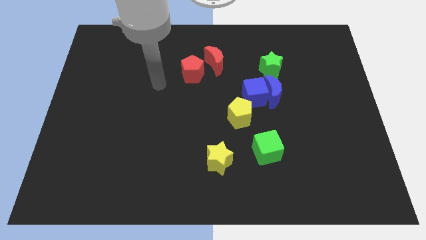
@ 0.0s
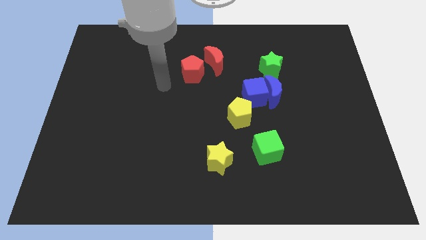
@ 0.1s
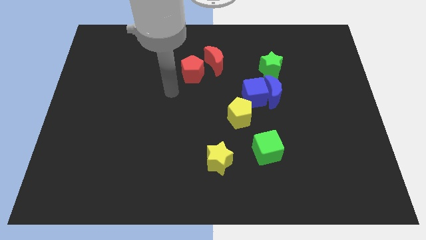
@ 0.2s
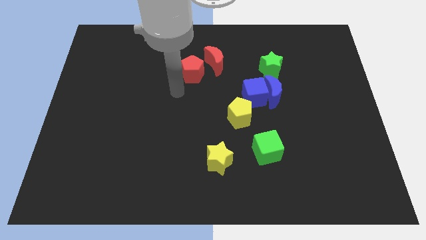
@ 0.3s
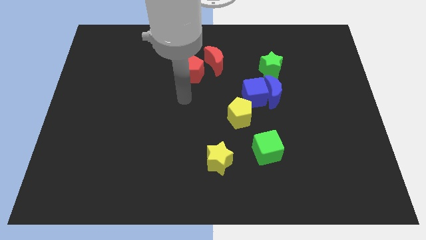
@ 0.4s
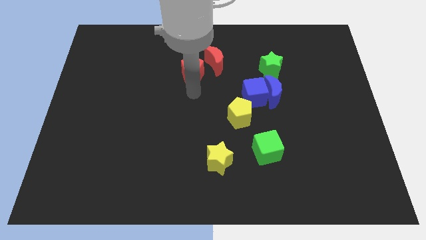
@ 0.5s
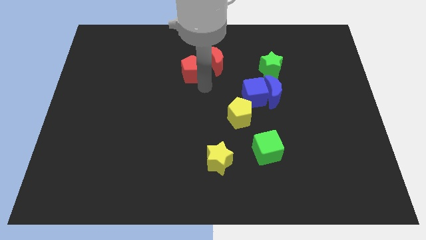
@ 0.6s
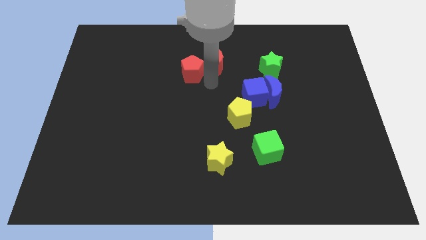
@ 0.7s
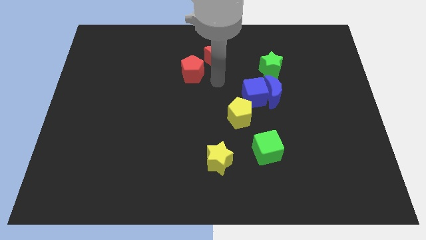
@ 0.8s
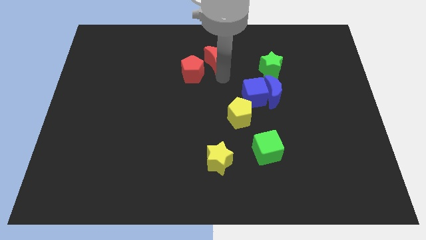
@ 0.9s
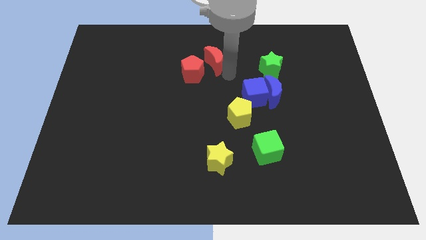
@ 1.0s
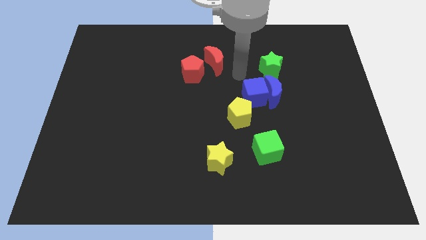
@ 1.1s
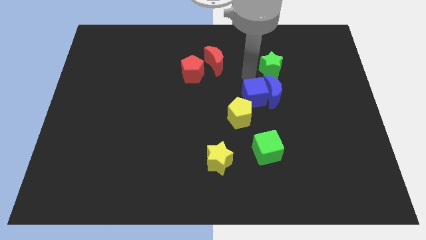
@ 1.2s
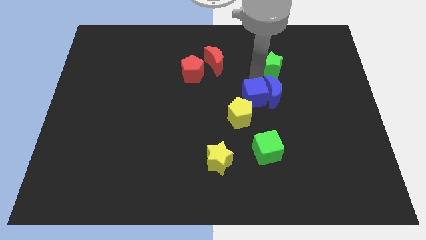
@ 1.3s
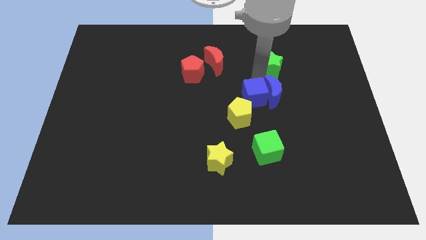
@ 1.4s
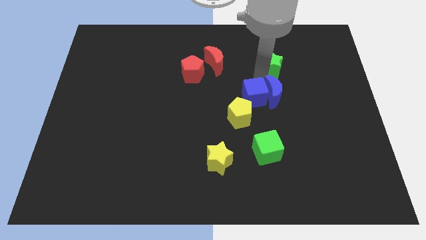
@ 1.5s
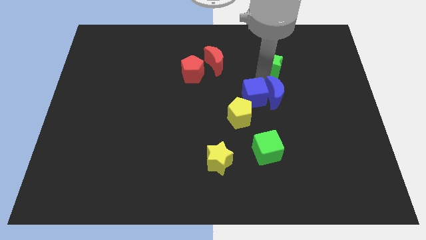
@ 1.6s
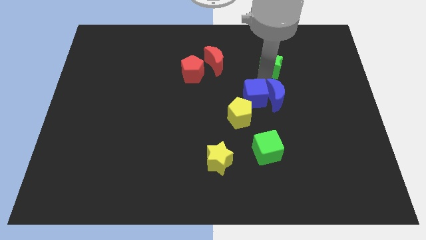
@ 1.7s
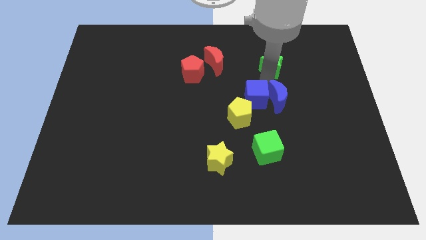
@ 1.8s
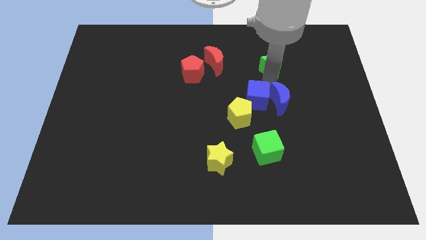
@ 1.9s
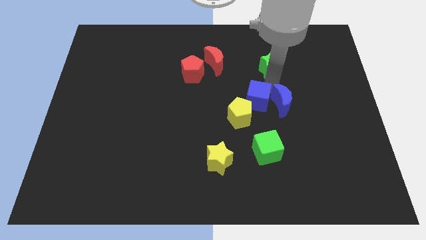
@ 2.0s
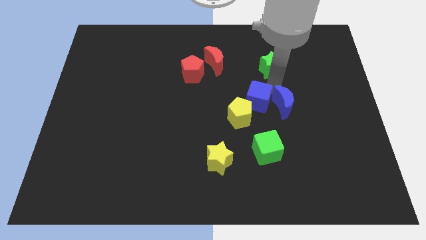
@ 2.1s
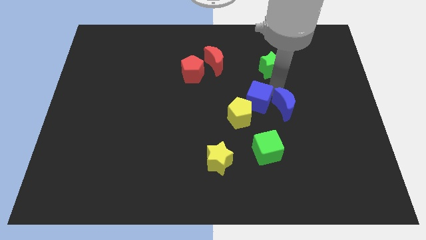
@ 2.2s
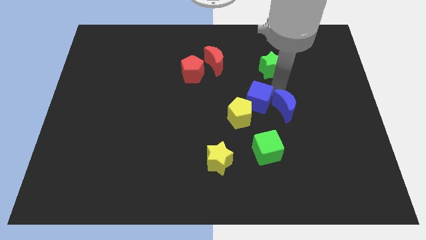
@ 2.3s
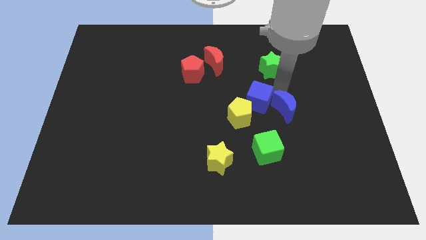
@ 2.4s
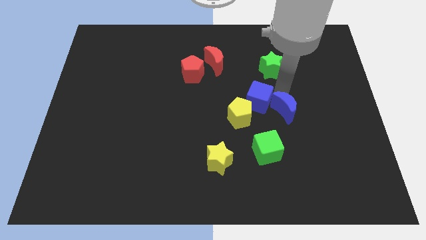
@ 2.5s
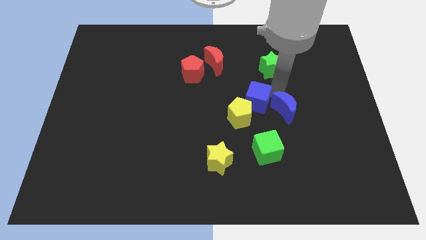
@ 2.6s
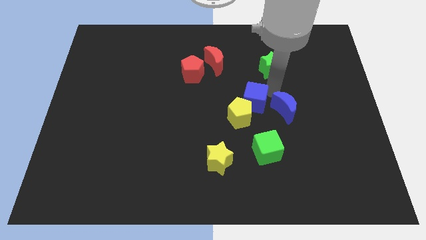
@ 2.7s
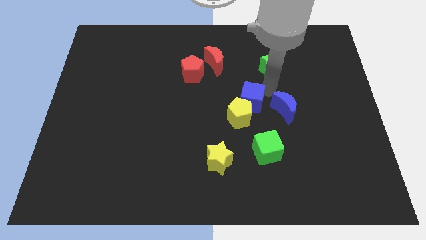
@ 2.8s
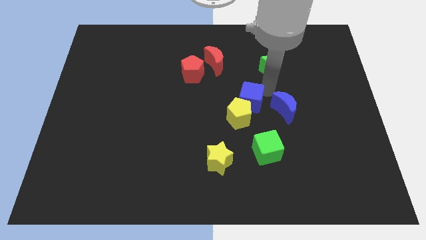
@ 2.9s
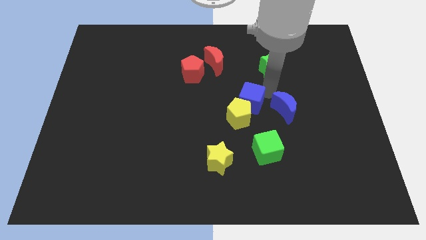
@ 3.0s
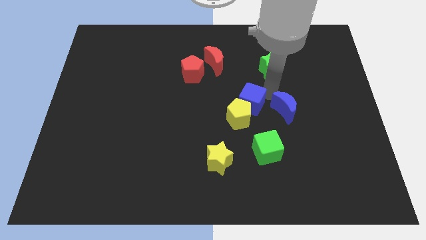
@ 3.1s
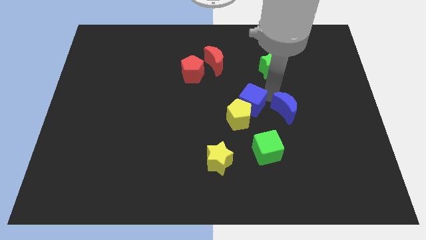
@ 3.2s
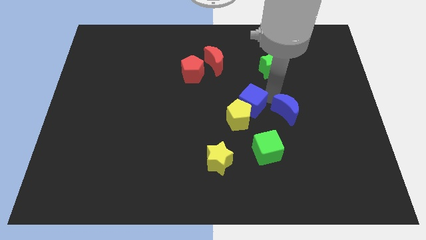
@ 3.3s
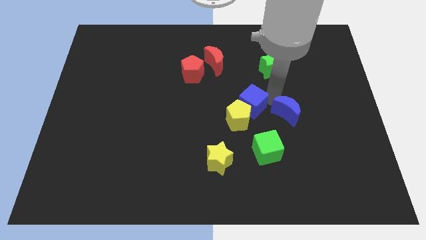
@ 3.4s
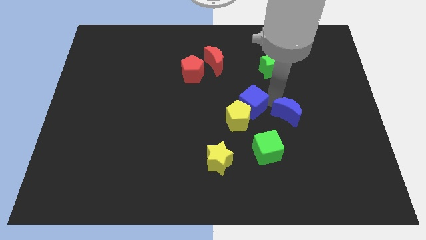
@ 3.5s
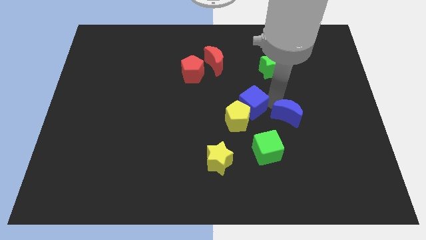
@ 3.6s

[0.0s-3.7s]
separate the blue moon from the blue cube and green star

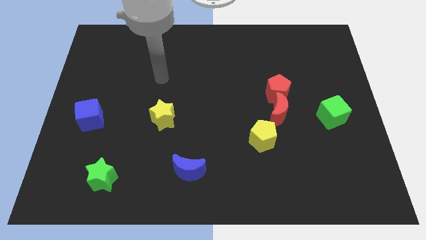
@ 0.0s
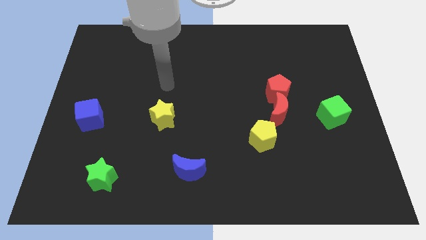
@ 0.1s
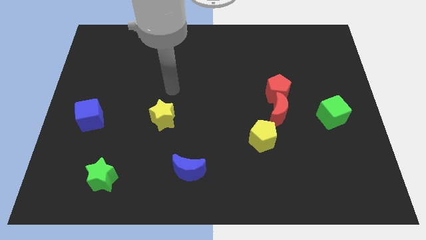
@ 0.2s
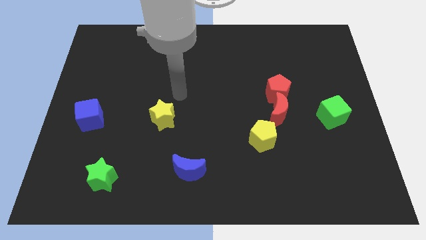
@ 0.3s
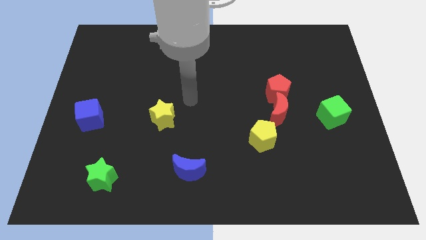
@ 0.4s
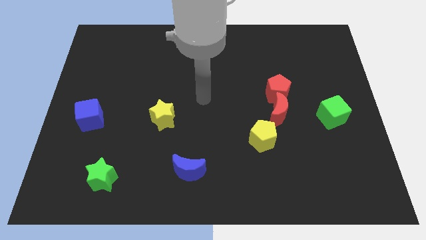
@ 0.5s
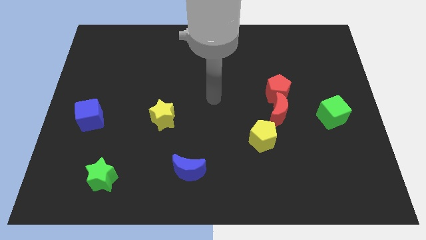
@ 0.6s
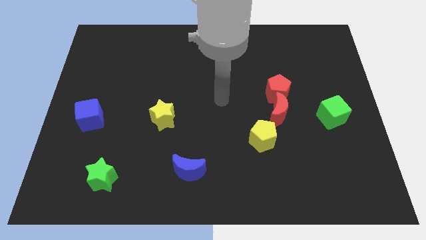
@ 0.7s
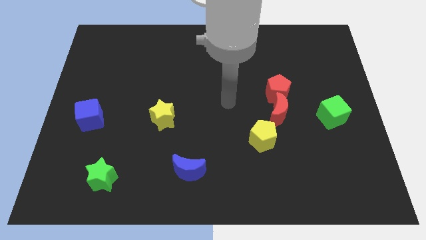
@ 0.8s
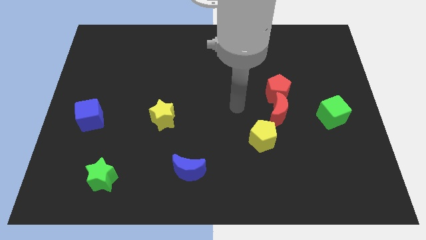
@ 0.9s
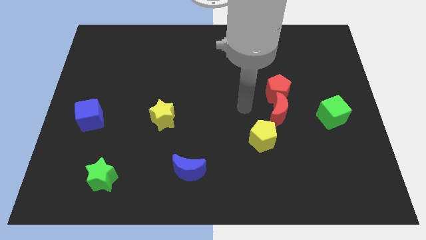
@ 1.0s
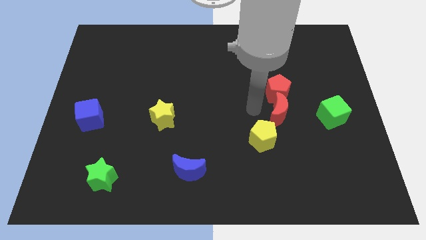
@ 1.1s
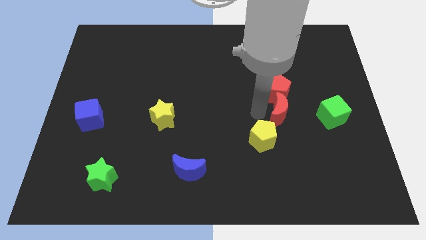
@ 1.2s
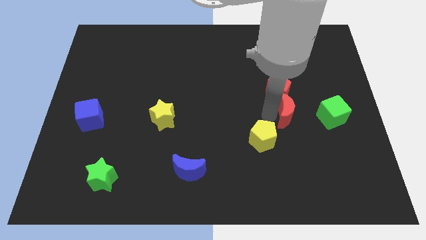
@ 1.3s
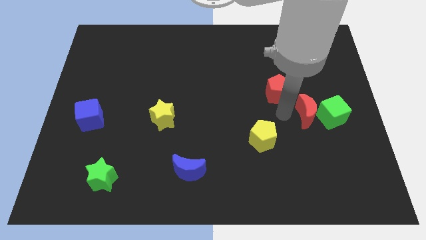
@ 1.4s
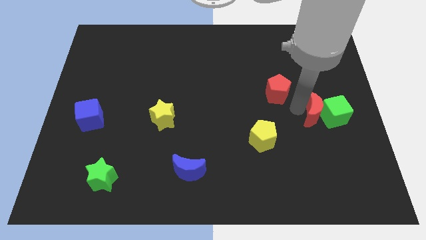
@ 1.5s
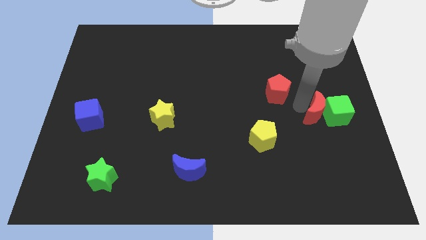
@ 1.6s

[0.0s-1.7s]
separate the red pentagon from the red moon

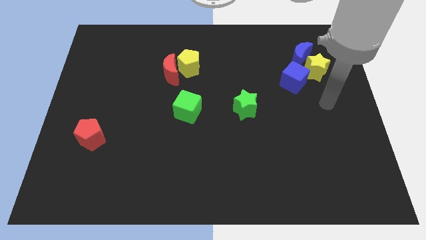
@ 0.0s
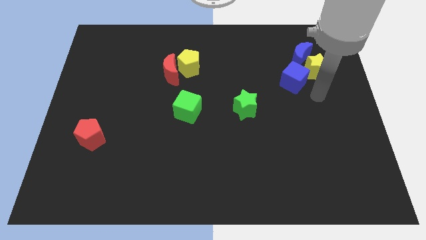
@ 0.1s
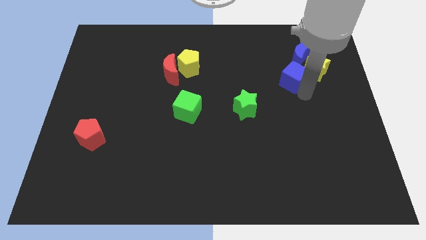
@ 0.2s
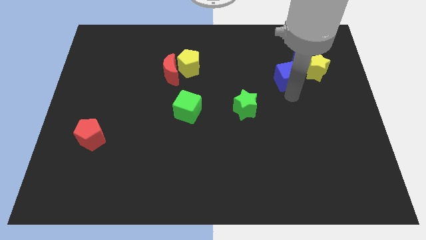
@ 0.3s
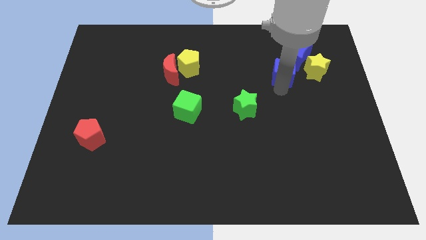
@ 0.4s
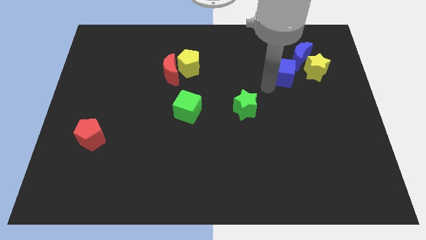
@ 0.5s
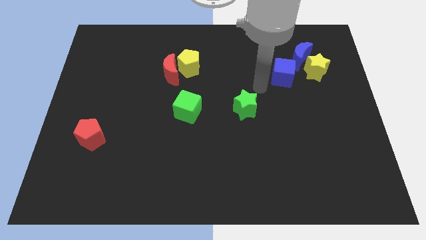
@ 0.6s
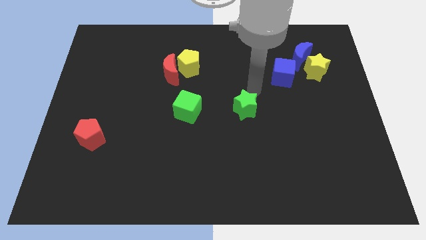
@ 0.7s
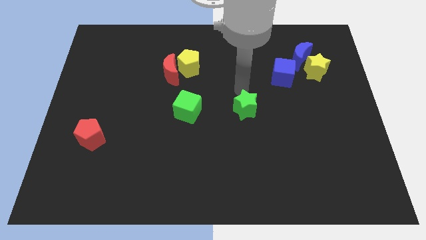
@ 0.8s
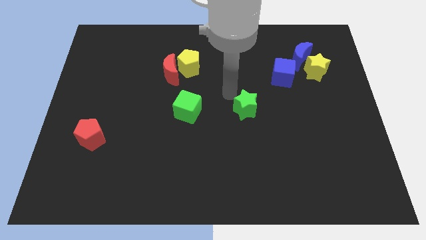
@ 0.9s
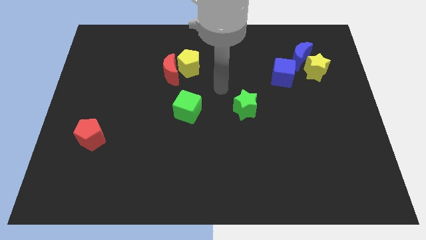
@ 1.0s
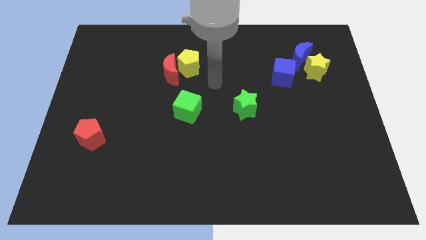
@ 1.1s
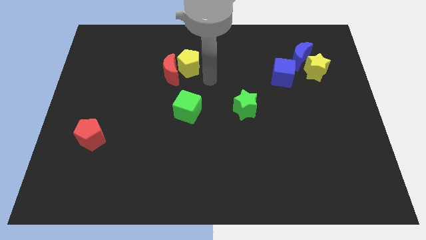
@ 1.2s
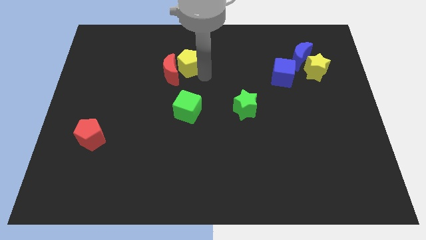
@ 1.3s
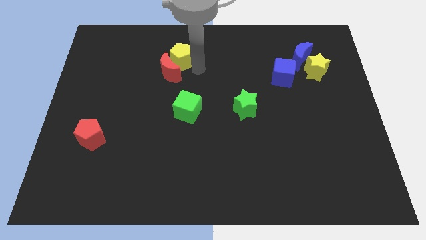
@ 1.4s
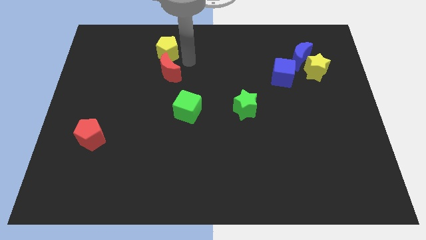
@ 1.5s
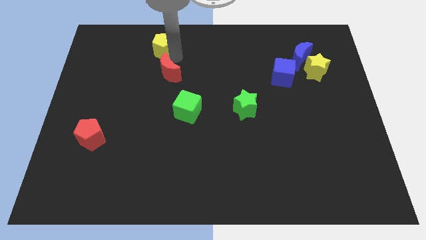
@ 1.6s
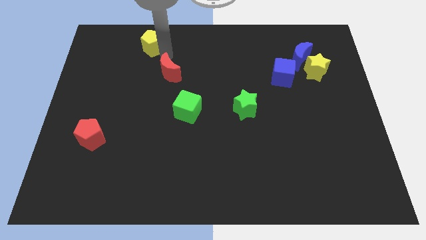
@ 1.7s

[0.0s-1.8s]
pull the red moon apart from the yellow pentagon

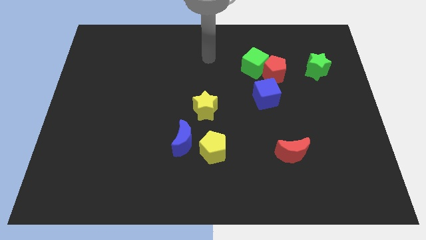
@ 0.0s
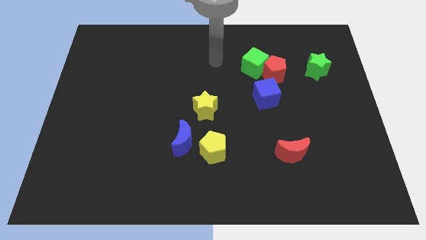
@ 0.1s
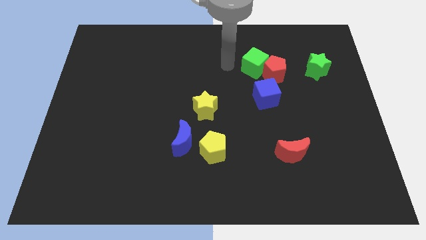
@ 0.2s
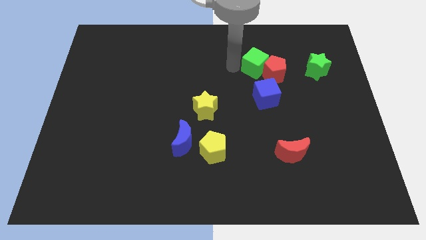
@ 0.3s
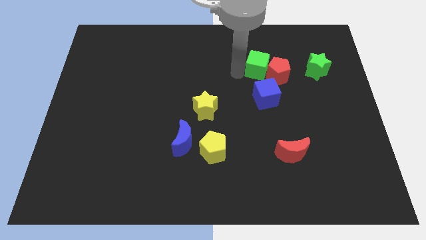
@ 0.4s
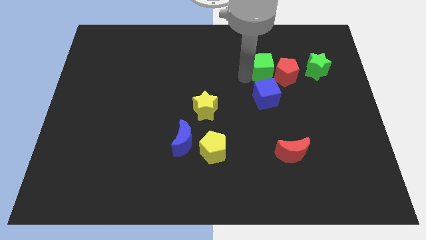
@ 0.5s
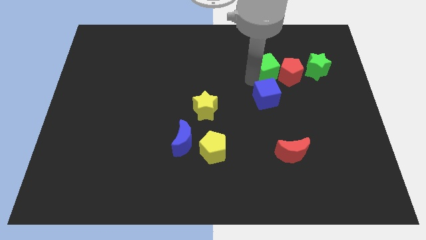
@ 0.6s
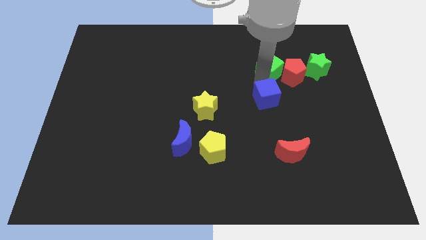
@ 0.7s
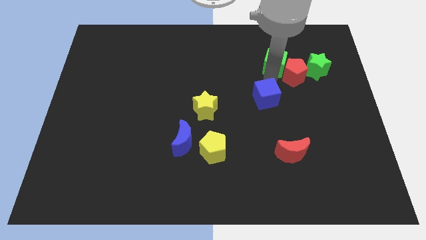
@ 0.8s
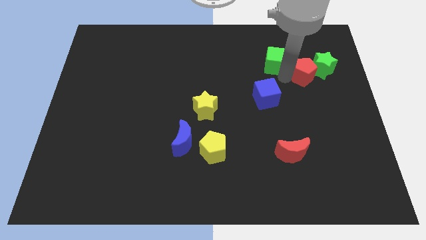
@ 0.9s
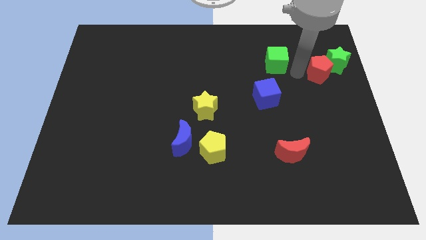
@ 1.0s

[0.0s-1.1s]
separate the green cube from the red pentagon

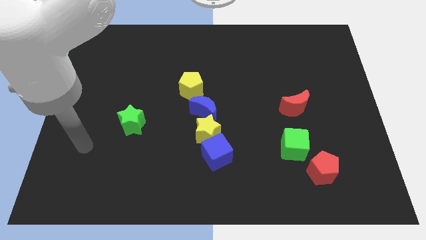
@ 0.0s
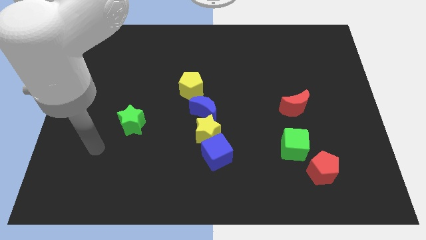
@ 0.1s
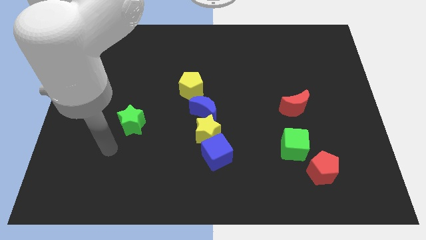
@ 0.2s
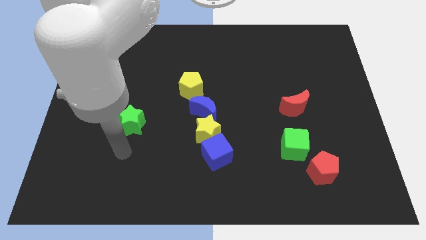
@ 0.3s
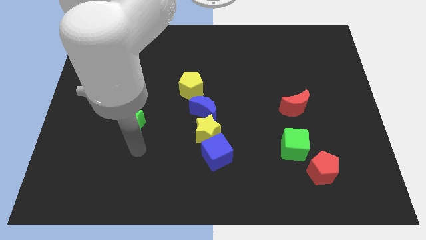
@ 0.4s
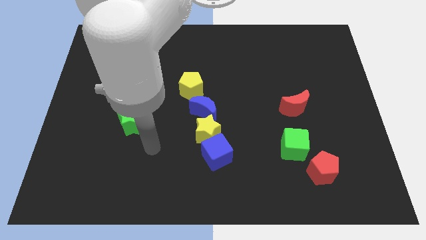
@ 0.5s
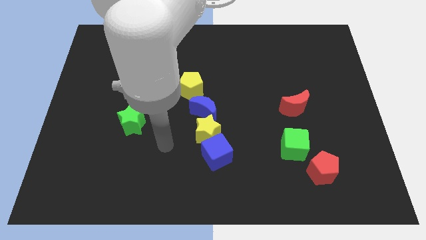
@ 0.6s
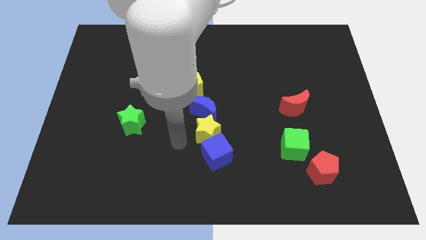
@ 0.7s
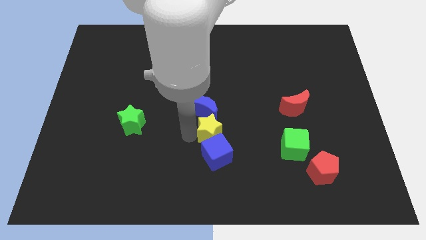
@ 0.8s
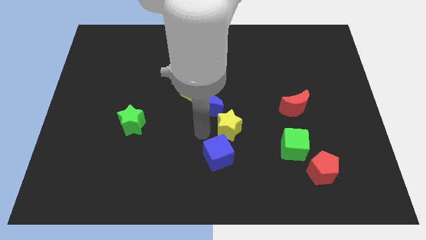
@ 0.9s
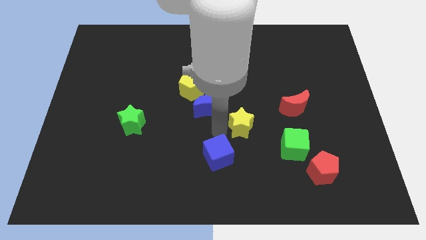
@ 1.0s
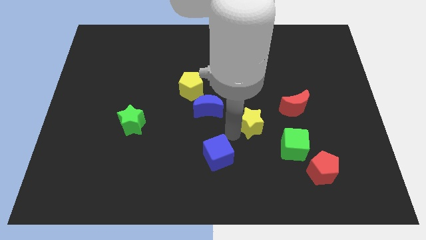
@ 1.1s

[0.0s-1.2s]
separate the blue cube from the yellow star
